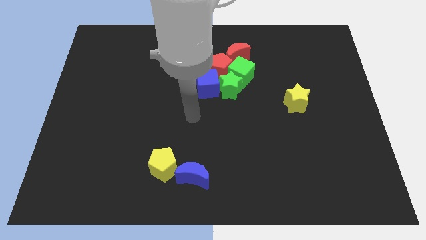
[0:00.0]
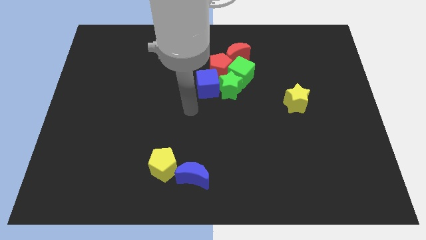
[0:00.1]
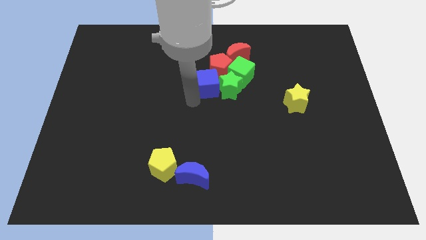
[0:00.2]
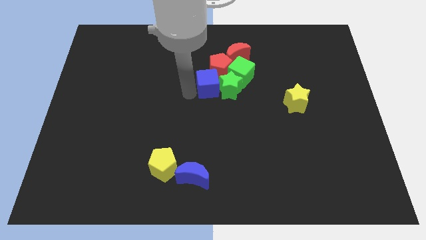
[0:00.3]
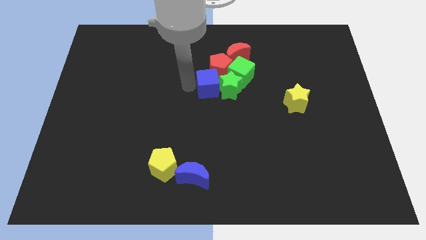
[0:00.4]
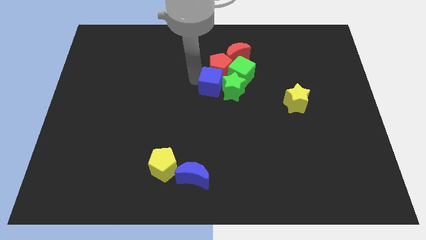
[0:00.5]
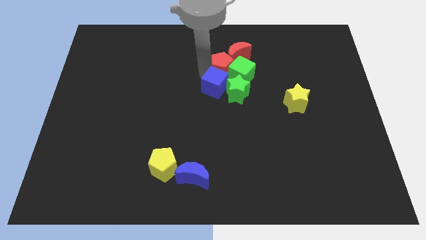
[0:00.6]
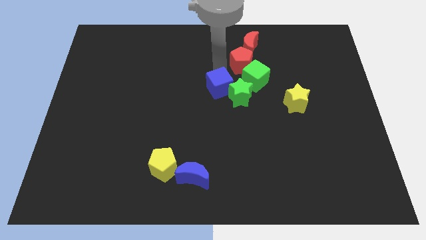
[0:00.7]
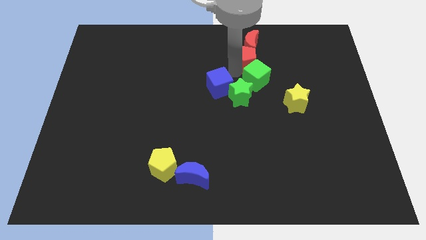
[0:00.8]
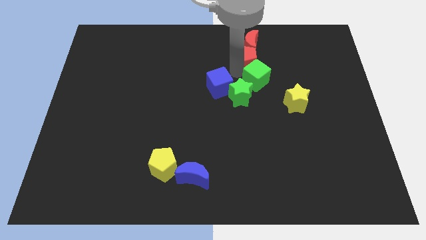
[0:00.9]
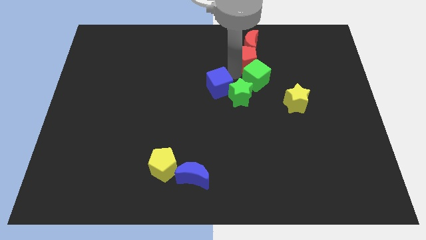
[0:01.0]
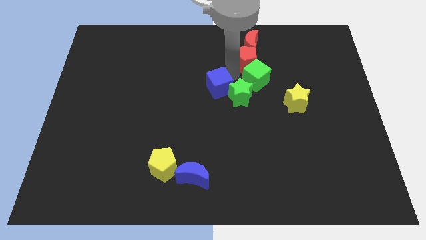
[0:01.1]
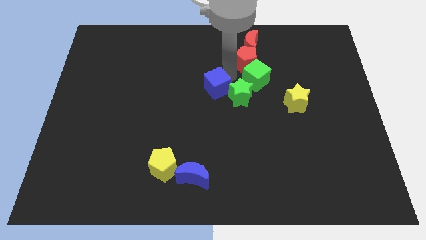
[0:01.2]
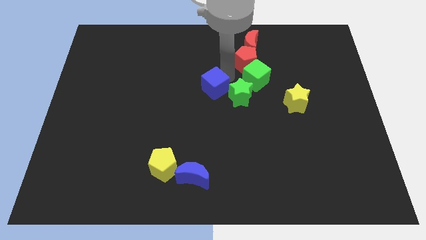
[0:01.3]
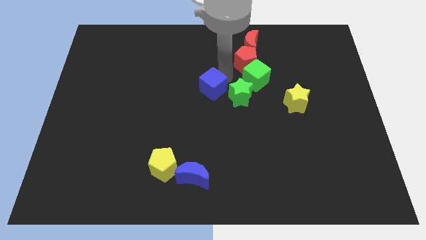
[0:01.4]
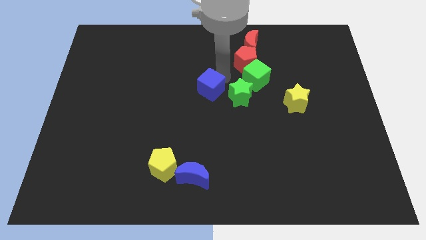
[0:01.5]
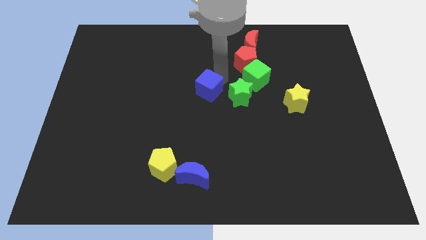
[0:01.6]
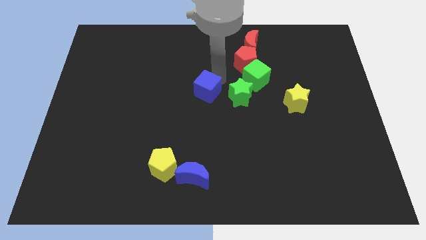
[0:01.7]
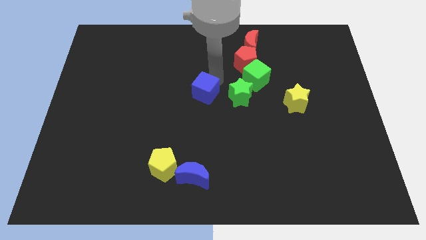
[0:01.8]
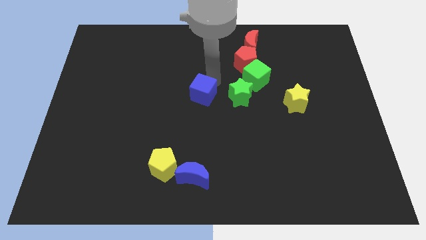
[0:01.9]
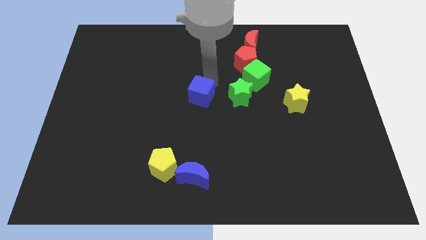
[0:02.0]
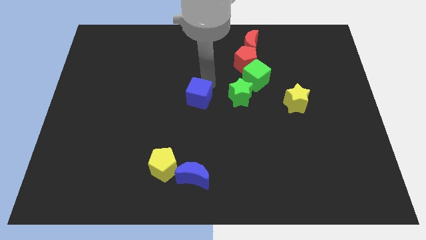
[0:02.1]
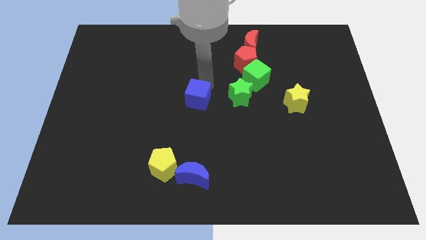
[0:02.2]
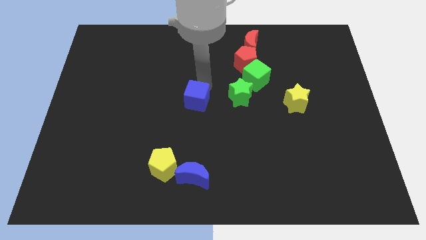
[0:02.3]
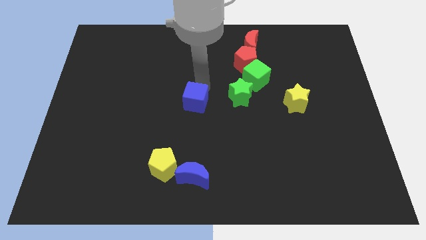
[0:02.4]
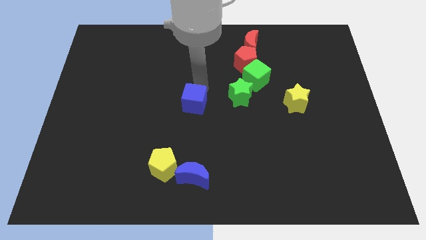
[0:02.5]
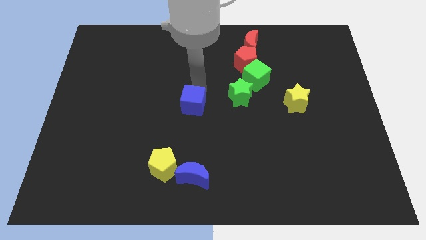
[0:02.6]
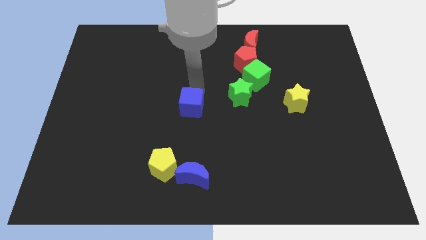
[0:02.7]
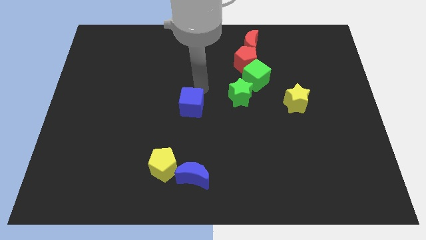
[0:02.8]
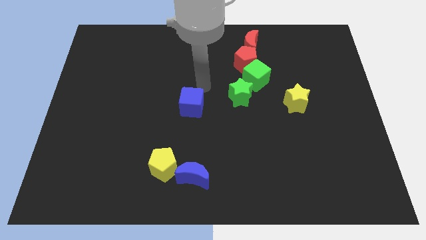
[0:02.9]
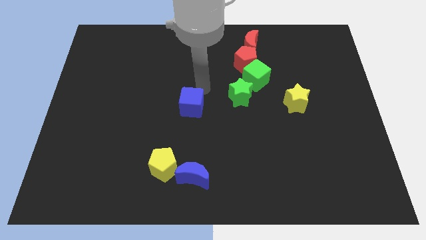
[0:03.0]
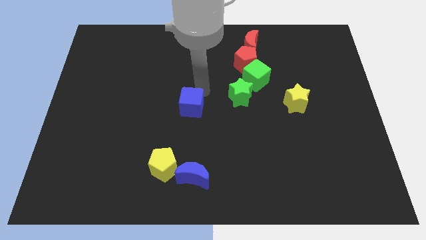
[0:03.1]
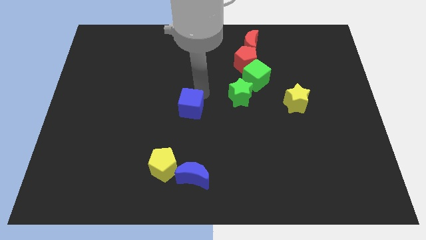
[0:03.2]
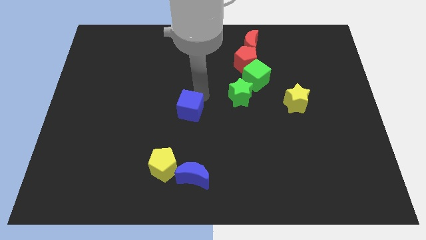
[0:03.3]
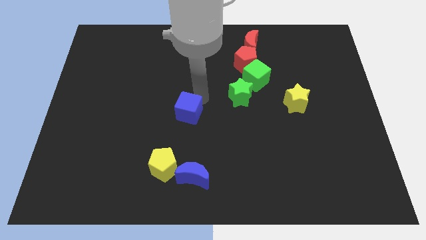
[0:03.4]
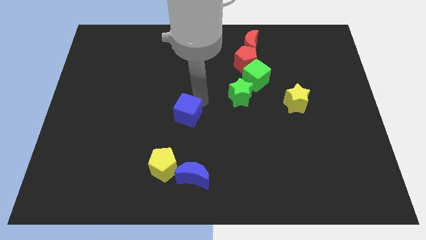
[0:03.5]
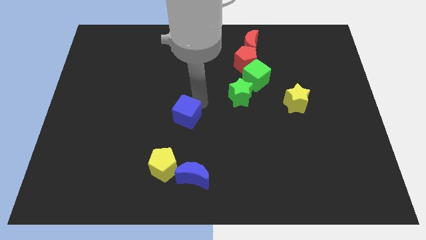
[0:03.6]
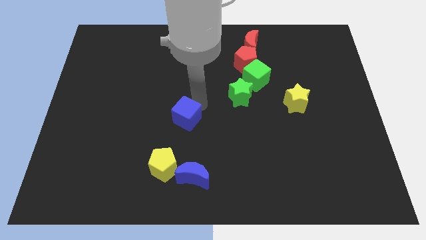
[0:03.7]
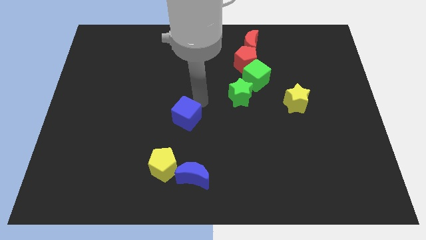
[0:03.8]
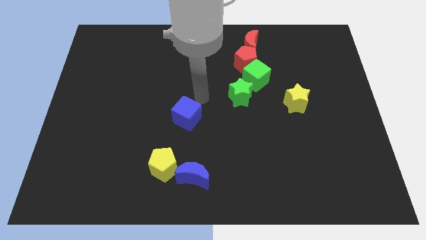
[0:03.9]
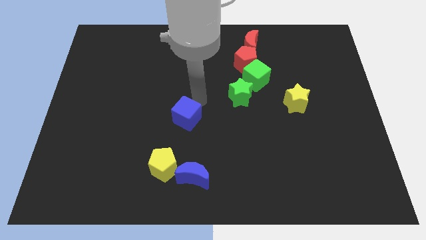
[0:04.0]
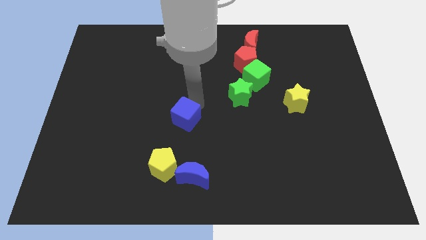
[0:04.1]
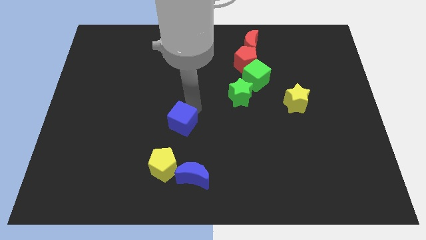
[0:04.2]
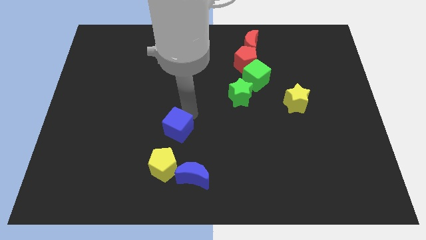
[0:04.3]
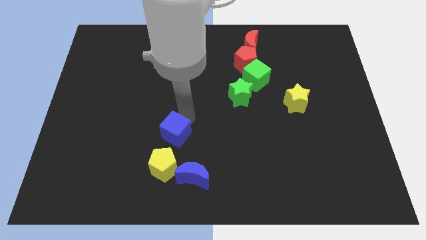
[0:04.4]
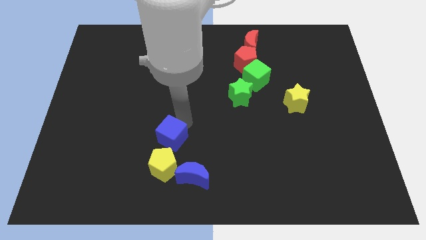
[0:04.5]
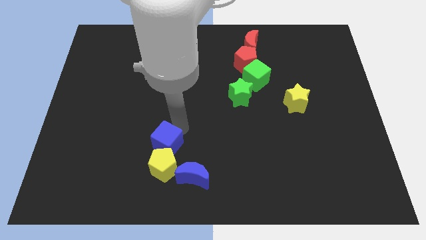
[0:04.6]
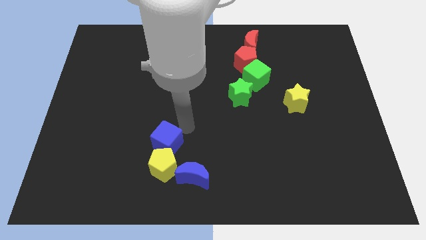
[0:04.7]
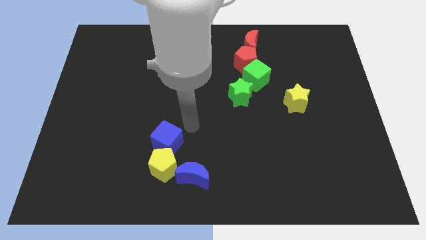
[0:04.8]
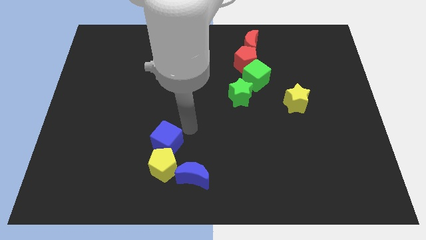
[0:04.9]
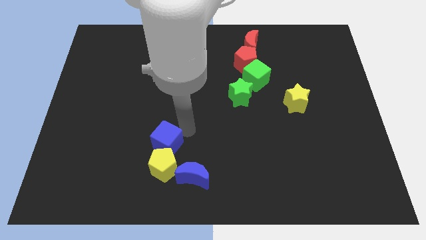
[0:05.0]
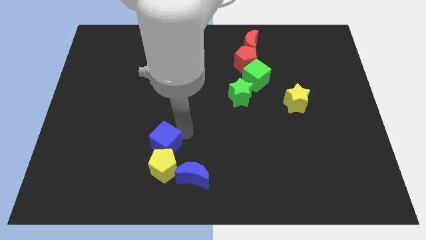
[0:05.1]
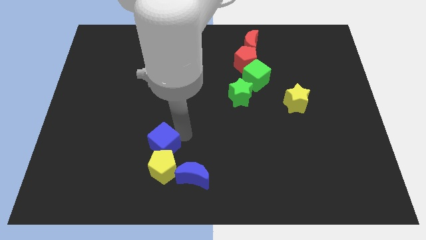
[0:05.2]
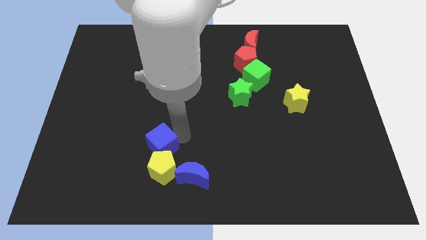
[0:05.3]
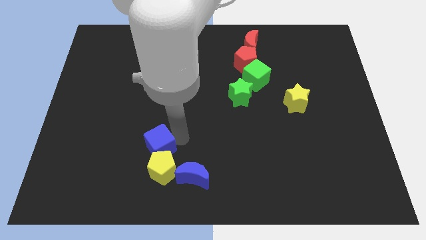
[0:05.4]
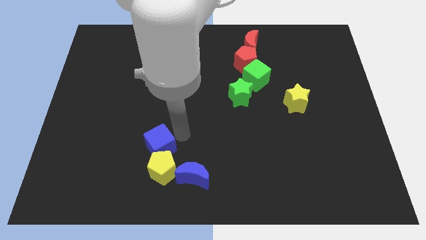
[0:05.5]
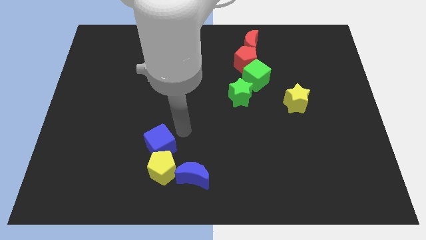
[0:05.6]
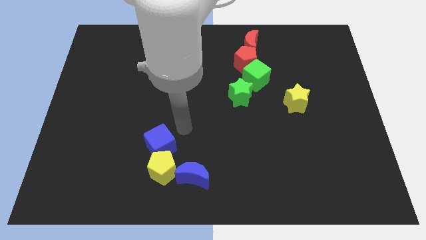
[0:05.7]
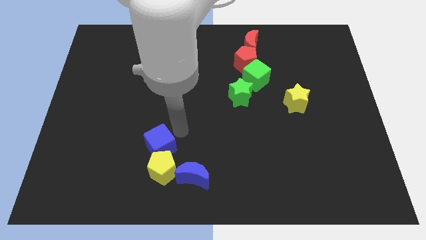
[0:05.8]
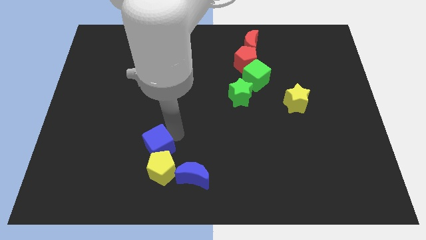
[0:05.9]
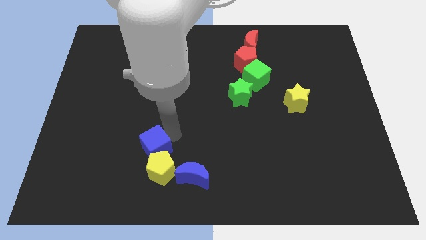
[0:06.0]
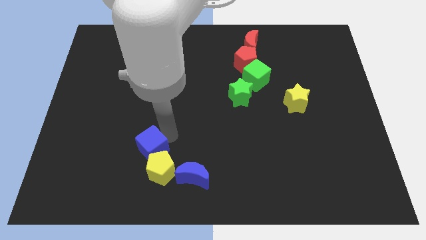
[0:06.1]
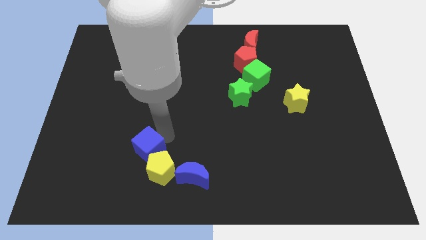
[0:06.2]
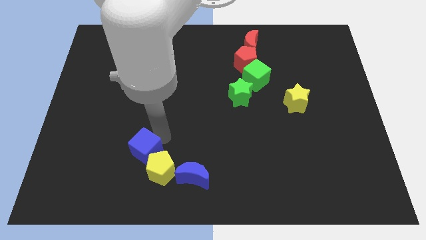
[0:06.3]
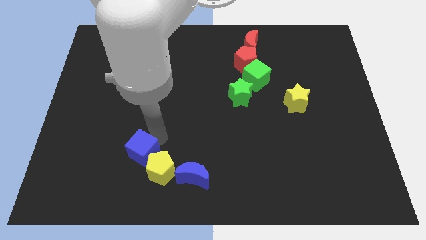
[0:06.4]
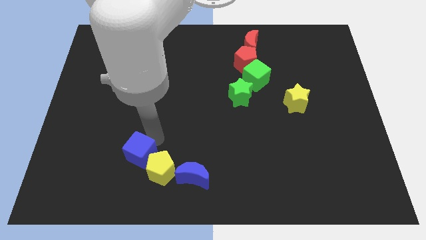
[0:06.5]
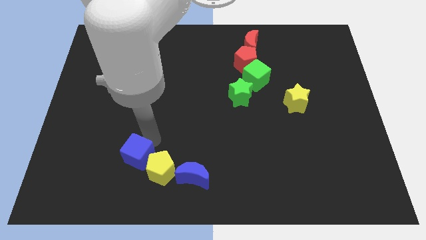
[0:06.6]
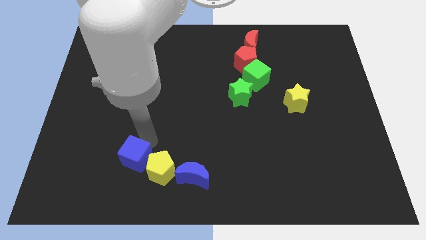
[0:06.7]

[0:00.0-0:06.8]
slide the blue cube to the left of the blue moon

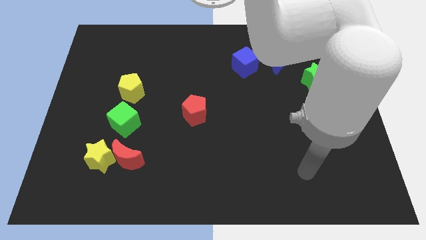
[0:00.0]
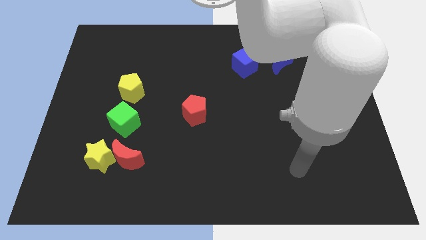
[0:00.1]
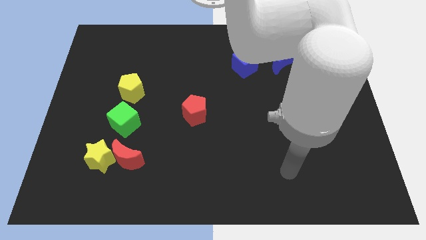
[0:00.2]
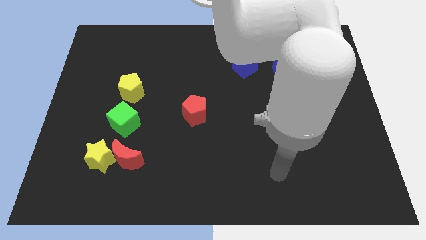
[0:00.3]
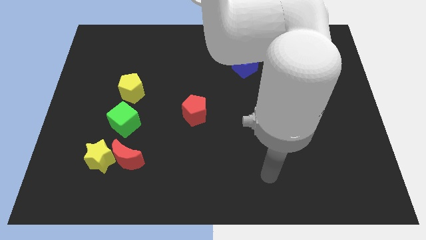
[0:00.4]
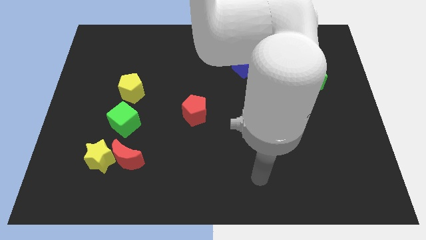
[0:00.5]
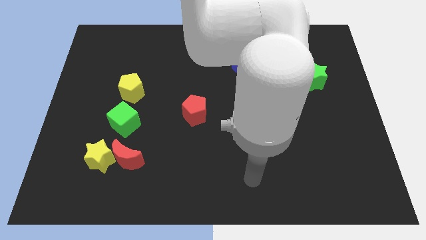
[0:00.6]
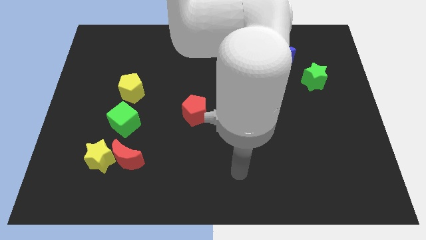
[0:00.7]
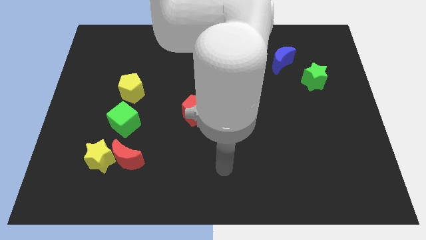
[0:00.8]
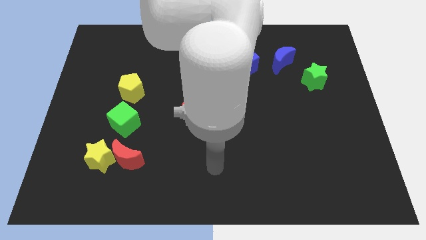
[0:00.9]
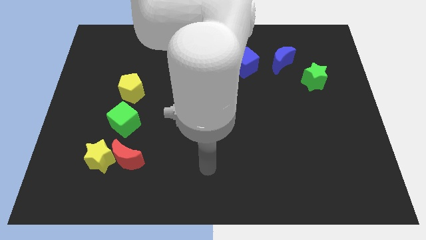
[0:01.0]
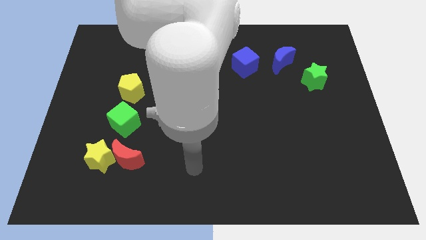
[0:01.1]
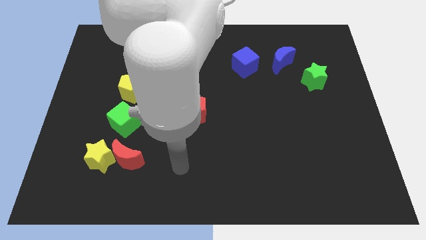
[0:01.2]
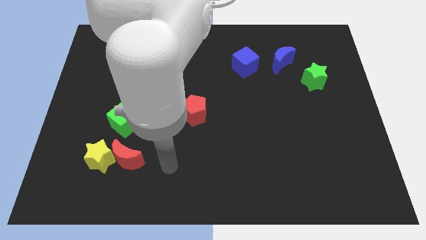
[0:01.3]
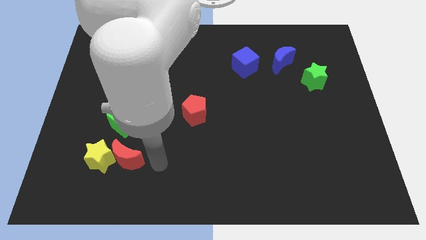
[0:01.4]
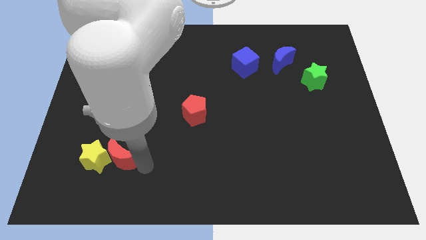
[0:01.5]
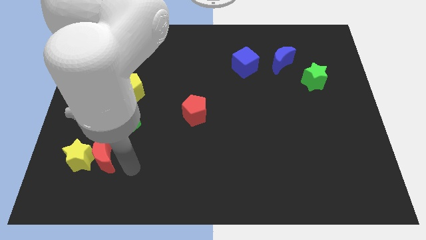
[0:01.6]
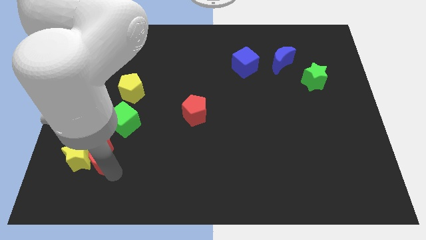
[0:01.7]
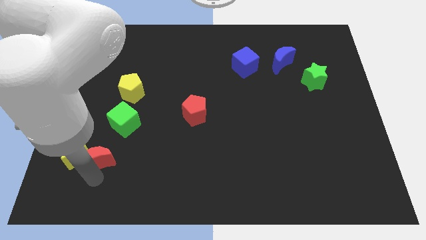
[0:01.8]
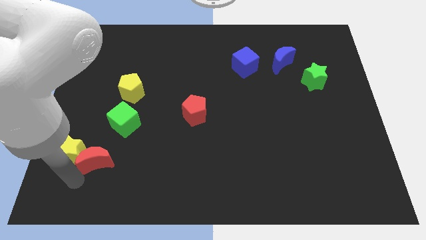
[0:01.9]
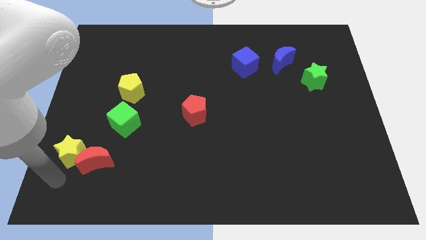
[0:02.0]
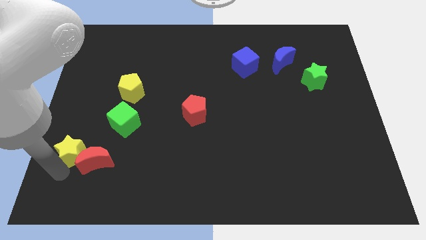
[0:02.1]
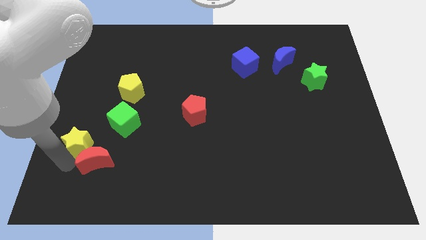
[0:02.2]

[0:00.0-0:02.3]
slide the yellow star to the top of the red moon
